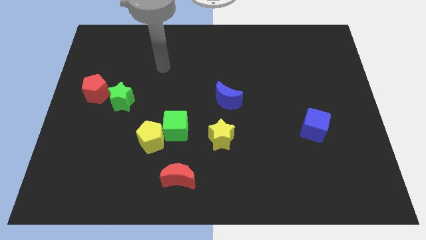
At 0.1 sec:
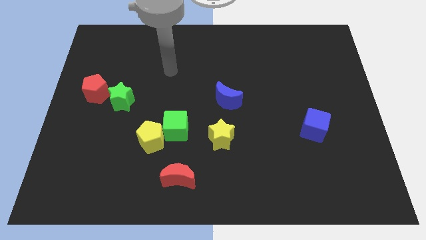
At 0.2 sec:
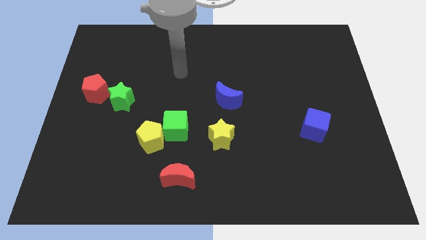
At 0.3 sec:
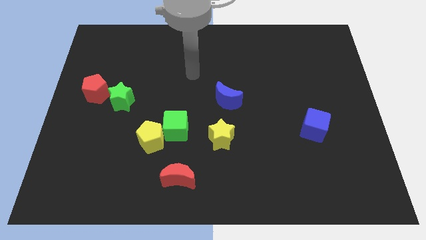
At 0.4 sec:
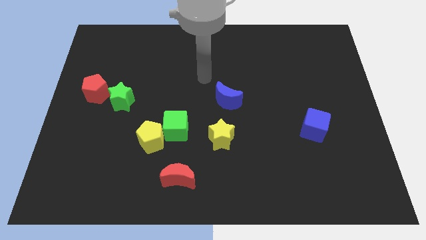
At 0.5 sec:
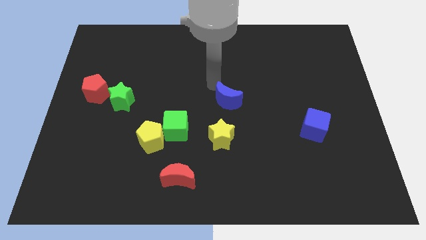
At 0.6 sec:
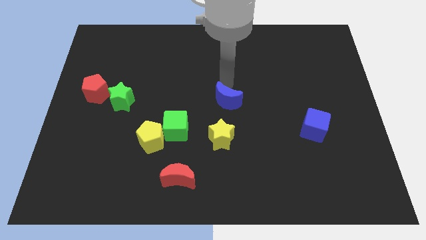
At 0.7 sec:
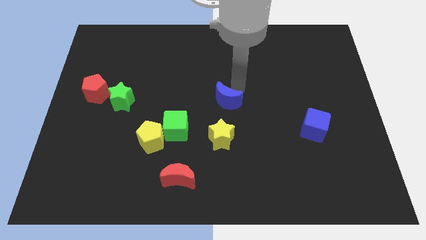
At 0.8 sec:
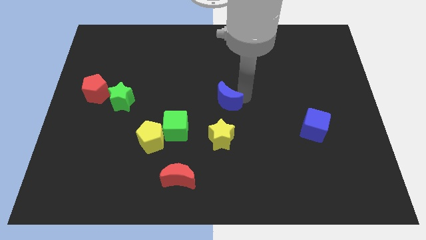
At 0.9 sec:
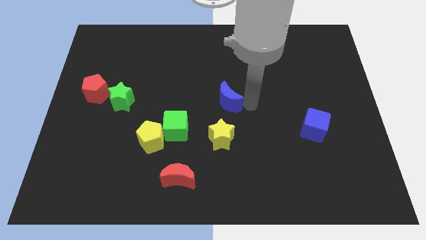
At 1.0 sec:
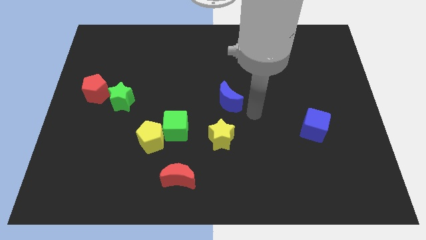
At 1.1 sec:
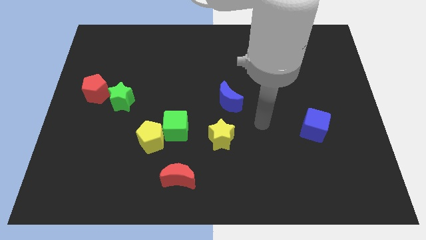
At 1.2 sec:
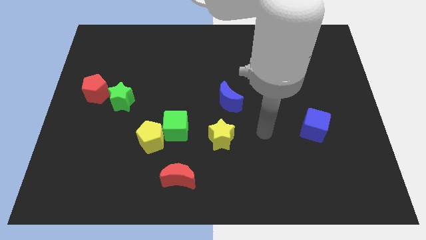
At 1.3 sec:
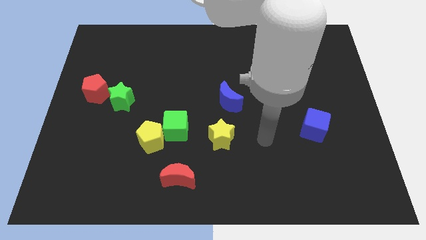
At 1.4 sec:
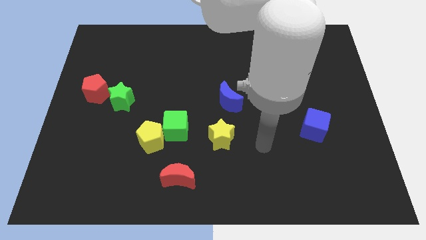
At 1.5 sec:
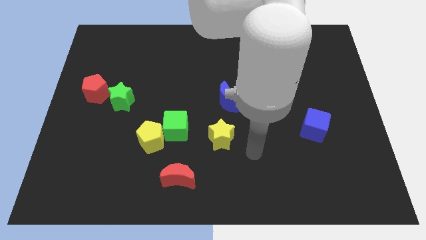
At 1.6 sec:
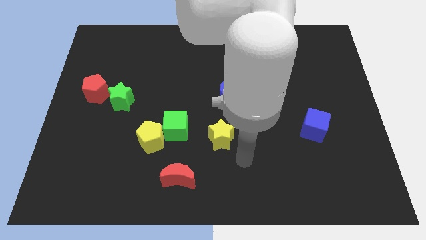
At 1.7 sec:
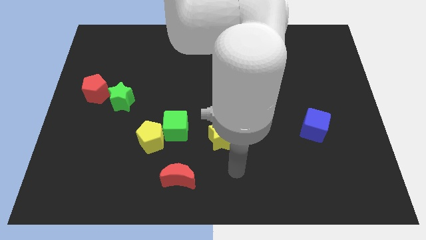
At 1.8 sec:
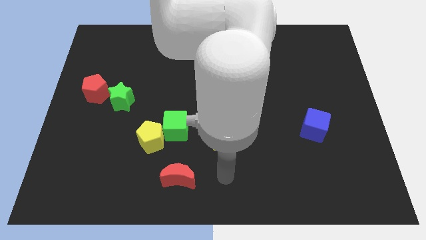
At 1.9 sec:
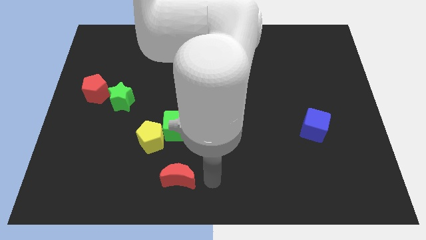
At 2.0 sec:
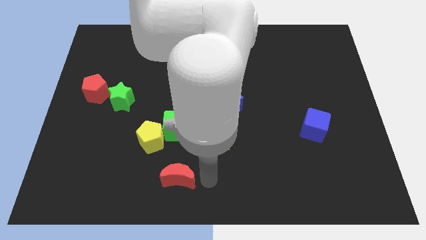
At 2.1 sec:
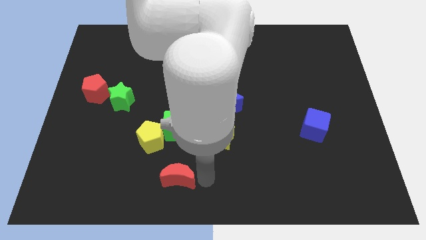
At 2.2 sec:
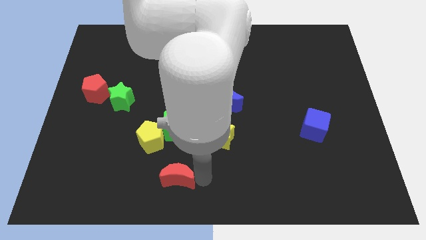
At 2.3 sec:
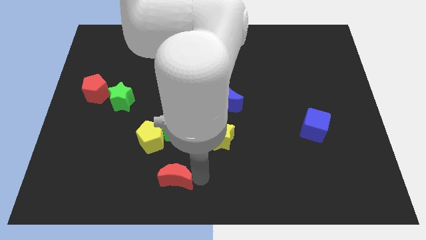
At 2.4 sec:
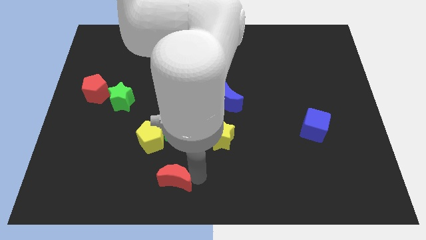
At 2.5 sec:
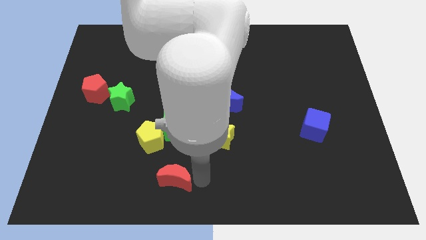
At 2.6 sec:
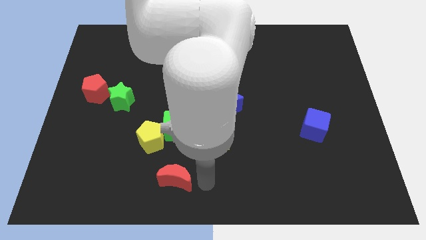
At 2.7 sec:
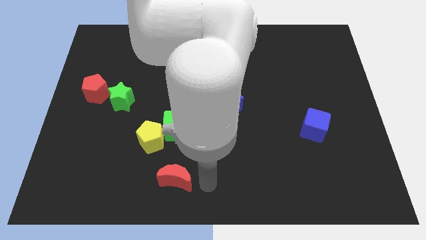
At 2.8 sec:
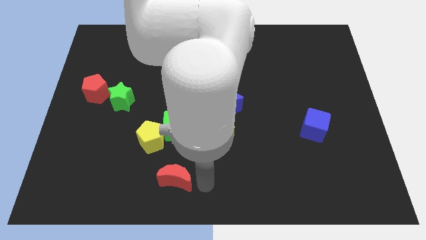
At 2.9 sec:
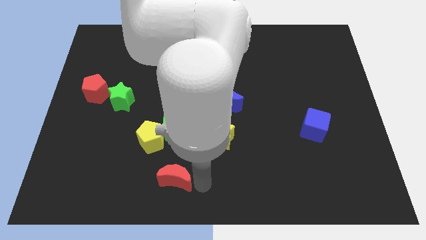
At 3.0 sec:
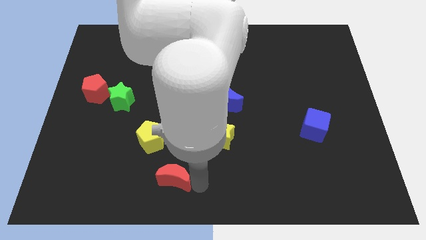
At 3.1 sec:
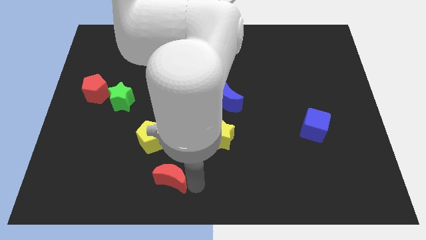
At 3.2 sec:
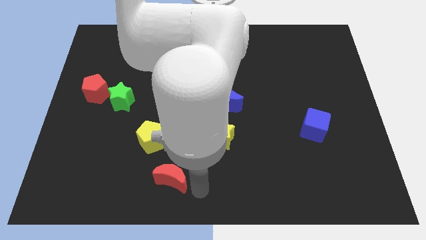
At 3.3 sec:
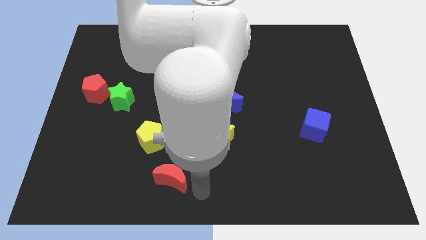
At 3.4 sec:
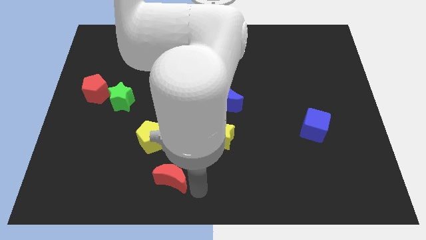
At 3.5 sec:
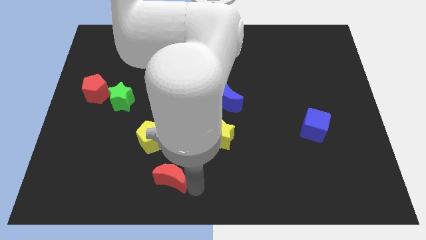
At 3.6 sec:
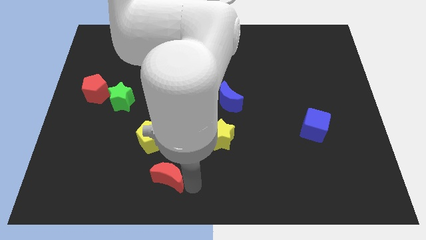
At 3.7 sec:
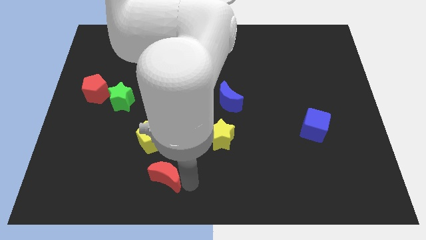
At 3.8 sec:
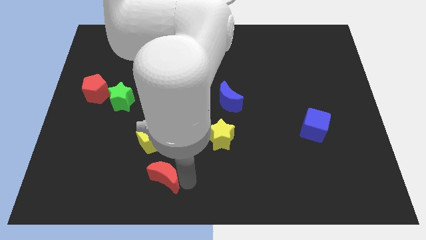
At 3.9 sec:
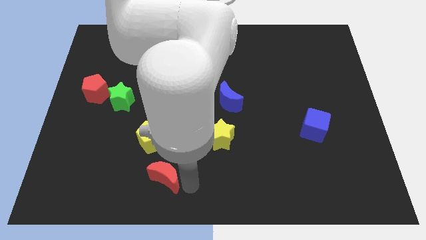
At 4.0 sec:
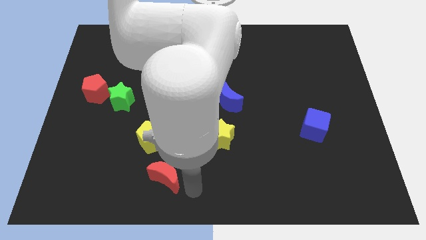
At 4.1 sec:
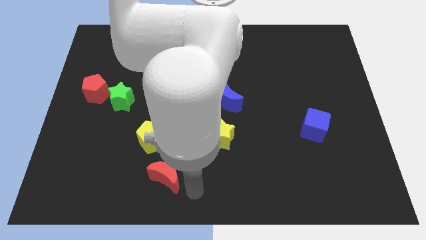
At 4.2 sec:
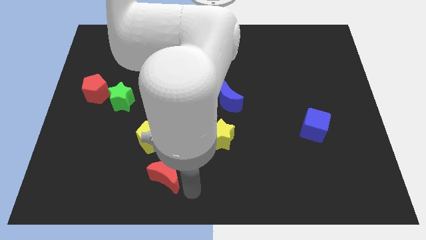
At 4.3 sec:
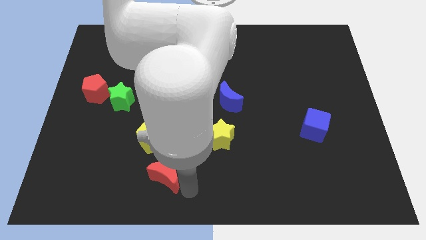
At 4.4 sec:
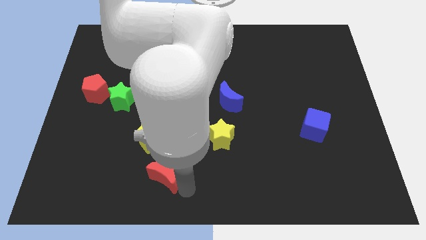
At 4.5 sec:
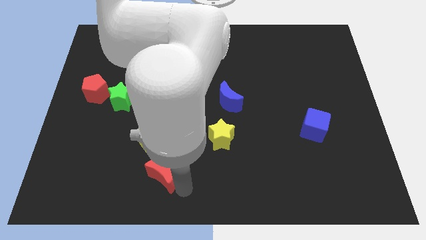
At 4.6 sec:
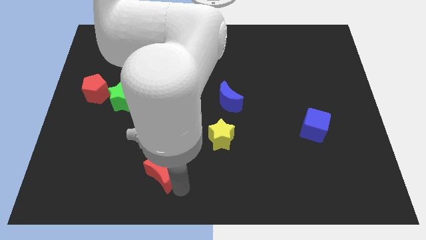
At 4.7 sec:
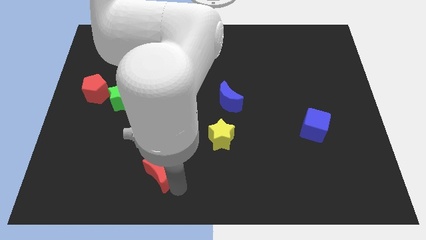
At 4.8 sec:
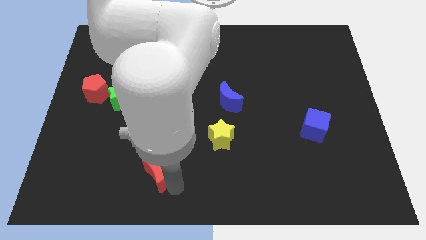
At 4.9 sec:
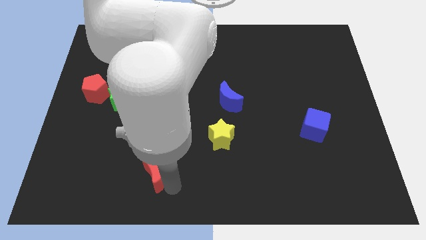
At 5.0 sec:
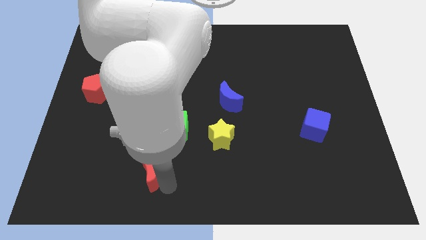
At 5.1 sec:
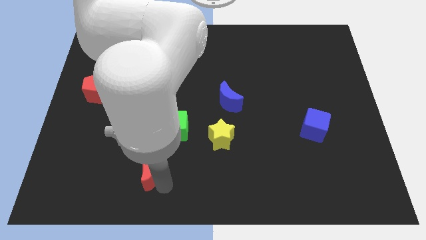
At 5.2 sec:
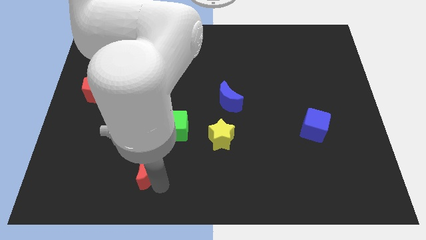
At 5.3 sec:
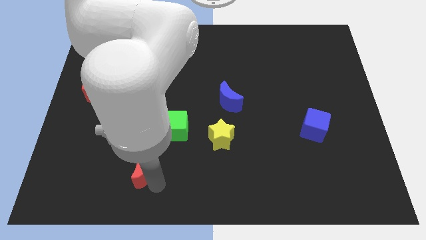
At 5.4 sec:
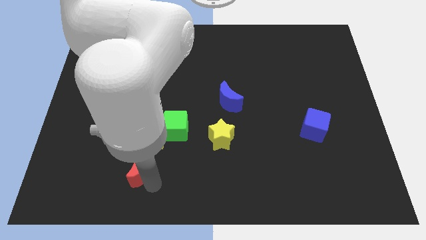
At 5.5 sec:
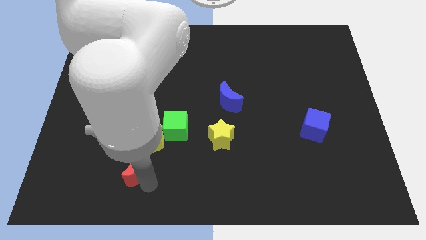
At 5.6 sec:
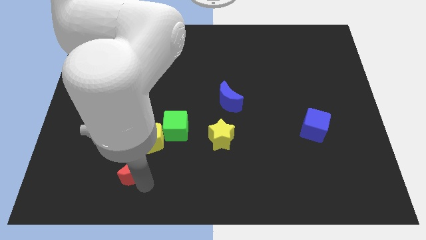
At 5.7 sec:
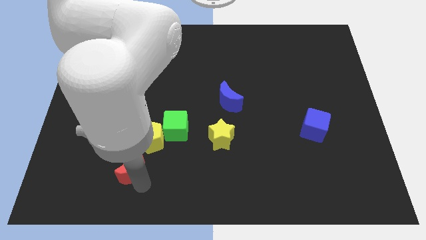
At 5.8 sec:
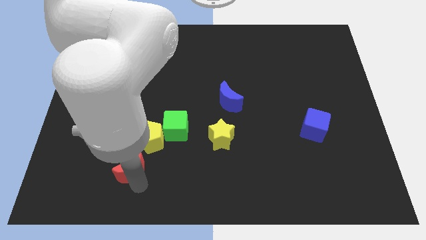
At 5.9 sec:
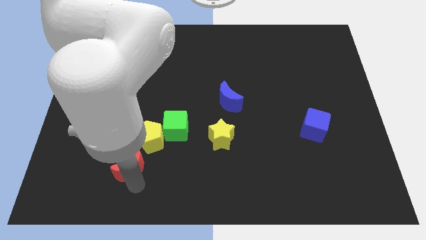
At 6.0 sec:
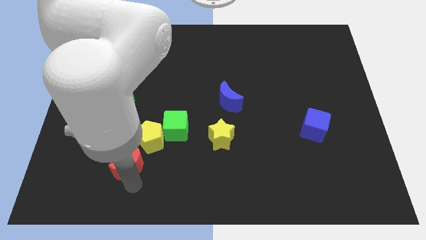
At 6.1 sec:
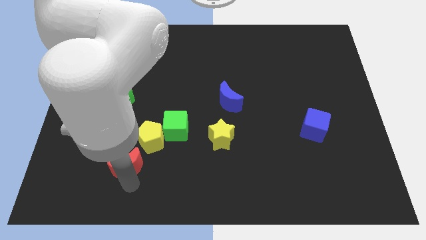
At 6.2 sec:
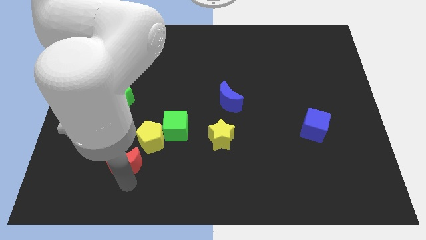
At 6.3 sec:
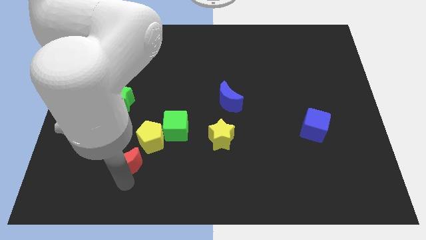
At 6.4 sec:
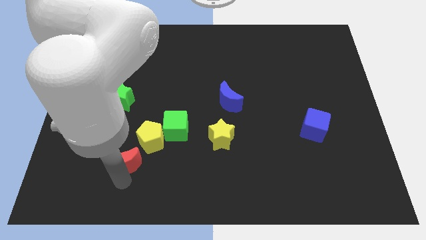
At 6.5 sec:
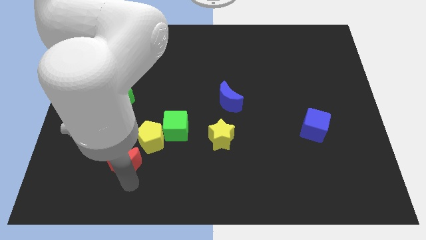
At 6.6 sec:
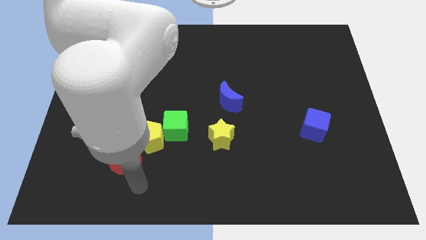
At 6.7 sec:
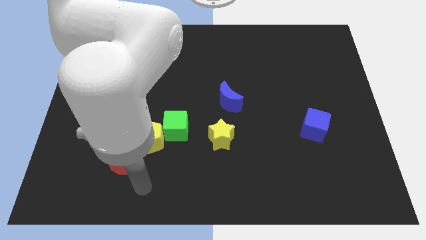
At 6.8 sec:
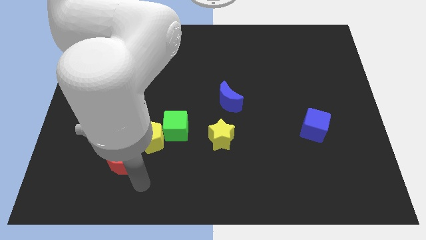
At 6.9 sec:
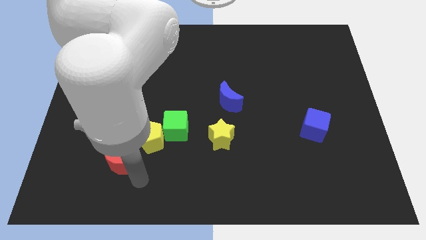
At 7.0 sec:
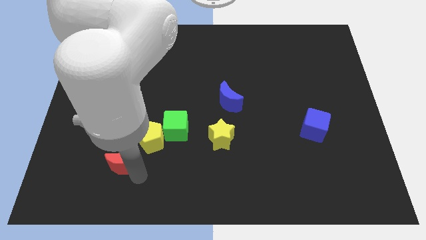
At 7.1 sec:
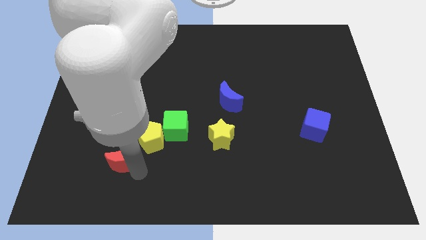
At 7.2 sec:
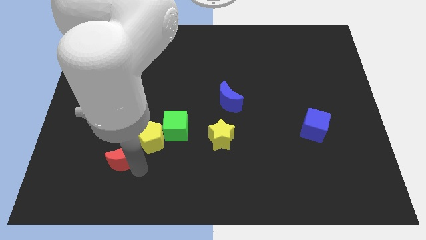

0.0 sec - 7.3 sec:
move the red moon just left of the yellow pentagon
